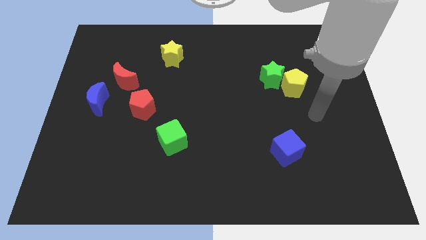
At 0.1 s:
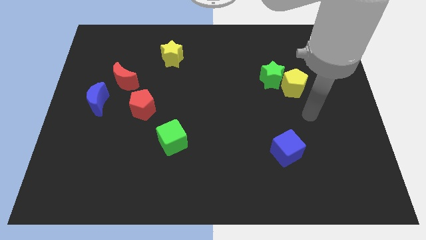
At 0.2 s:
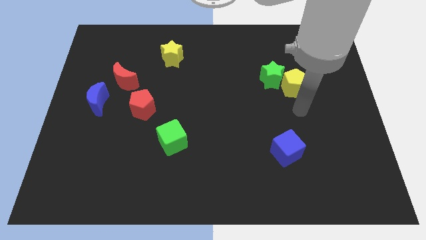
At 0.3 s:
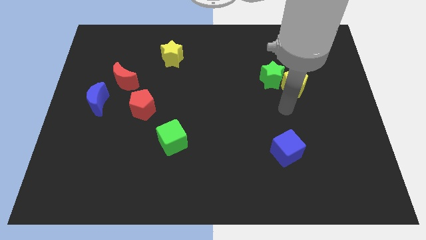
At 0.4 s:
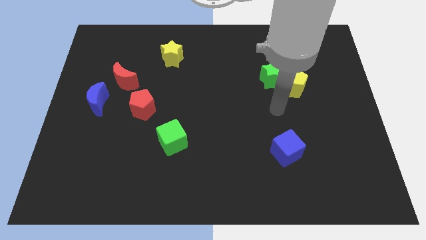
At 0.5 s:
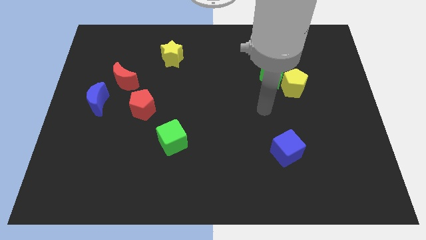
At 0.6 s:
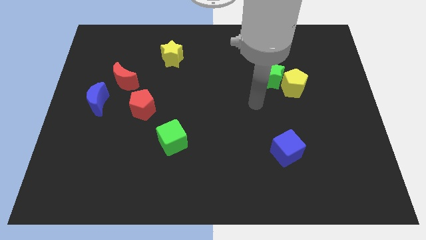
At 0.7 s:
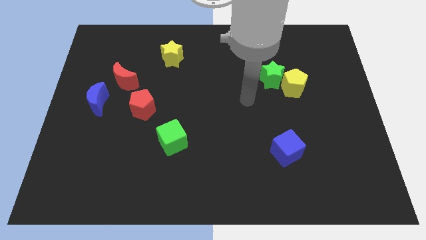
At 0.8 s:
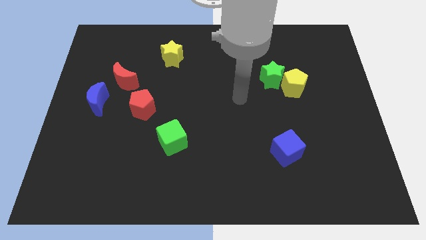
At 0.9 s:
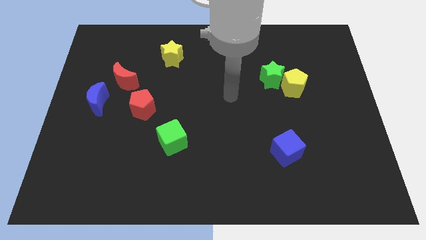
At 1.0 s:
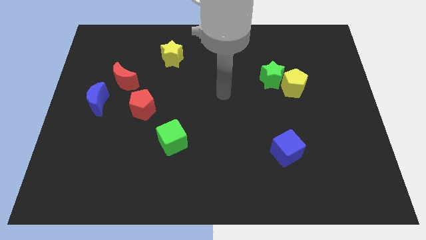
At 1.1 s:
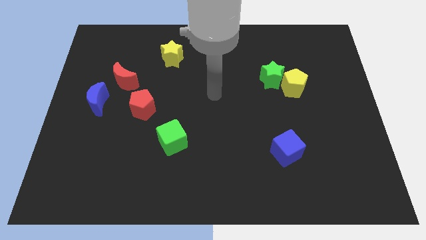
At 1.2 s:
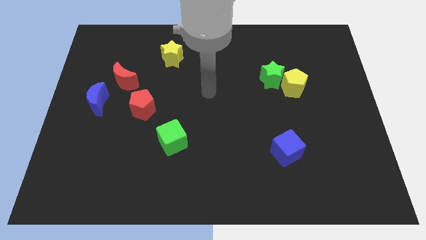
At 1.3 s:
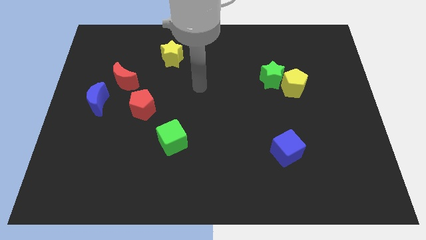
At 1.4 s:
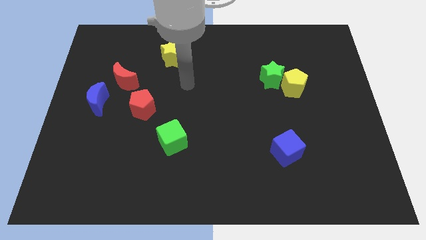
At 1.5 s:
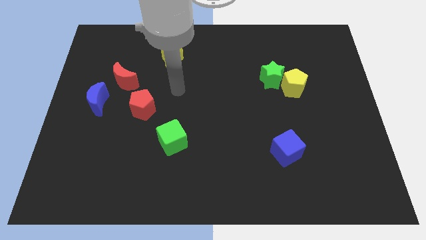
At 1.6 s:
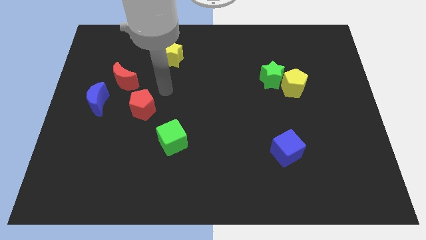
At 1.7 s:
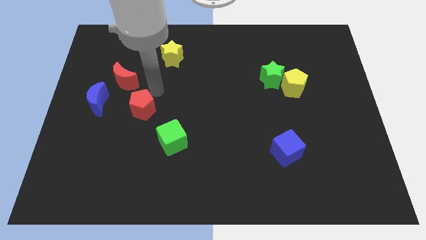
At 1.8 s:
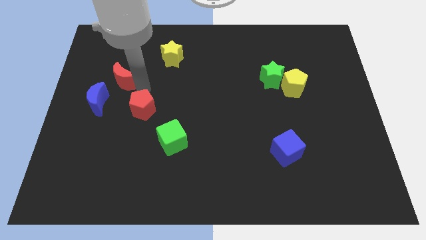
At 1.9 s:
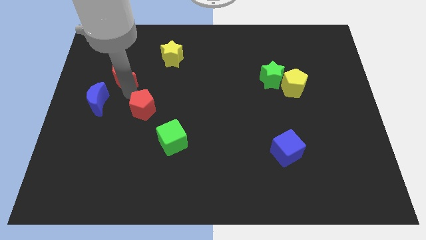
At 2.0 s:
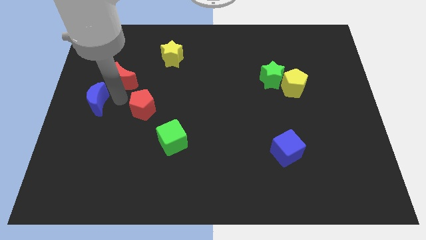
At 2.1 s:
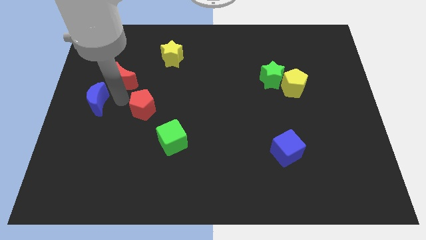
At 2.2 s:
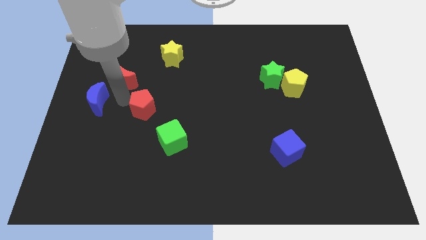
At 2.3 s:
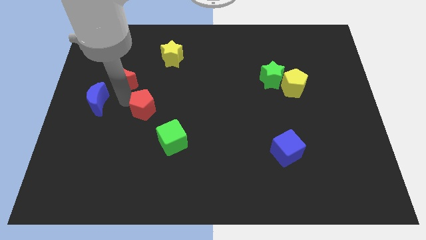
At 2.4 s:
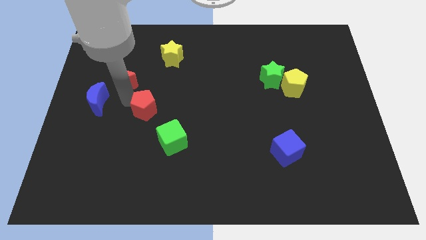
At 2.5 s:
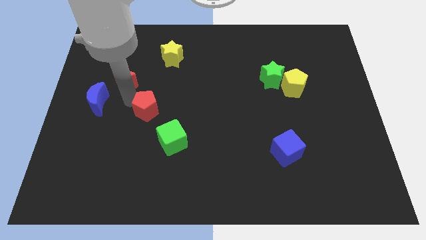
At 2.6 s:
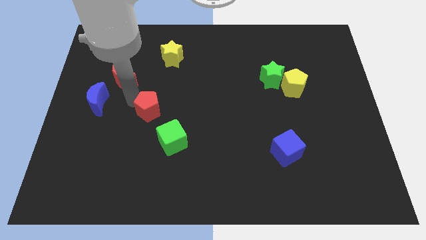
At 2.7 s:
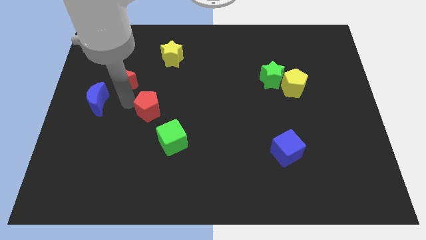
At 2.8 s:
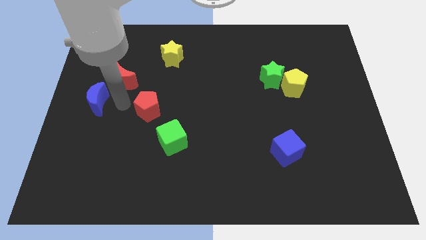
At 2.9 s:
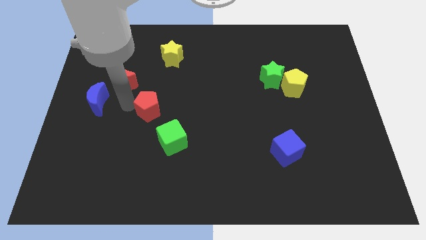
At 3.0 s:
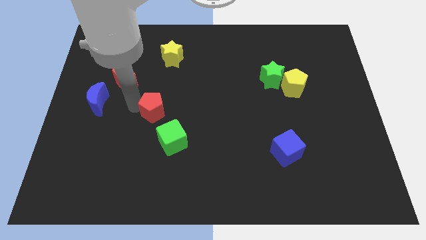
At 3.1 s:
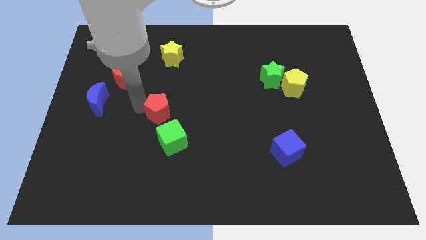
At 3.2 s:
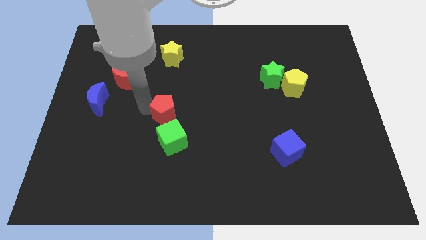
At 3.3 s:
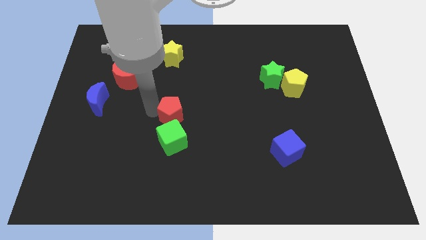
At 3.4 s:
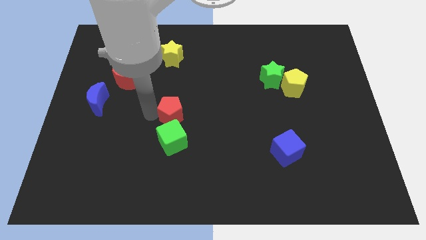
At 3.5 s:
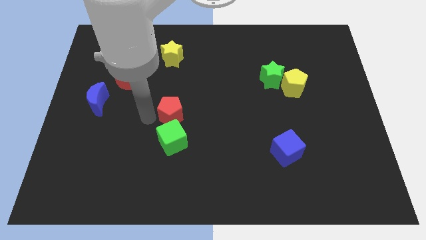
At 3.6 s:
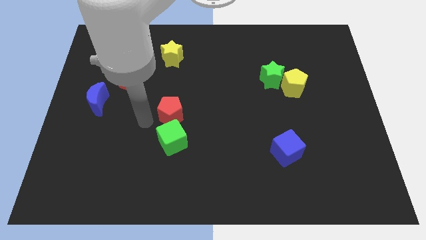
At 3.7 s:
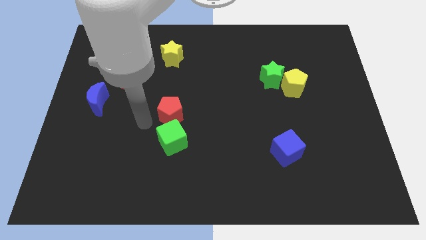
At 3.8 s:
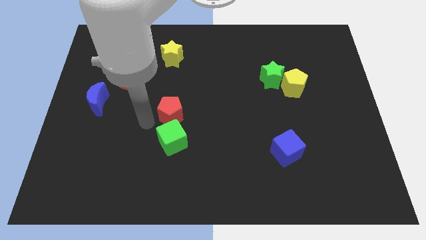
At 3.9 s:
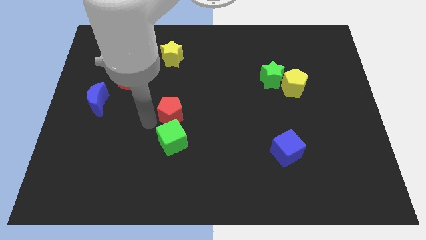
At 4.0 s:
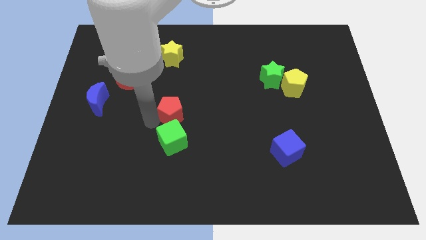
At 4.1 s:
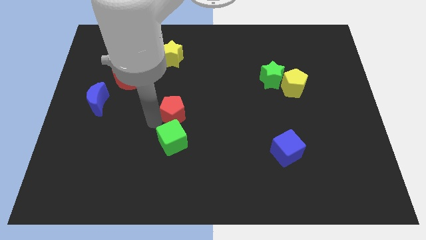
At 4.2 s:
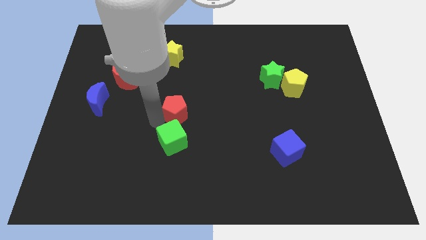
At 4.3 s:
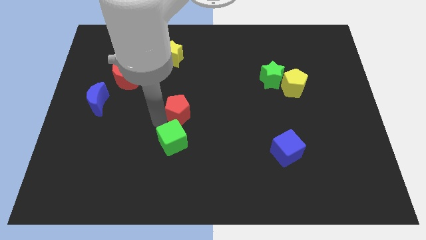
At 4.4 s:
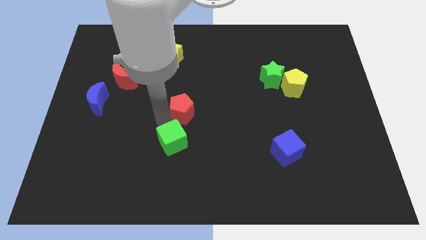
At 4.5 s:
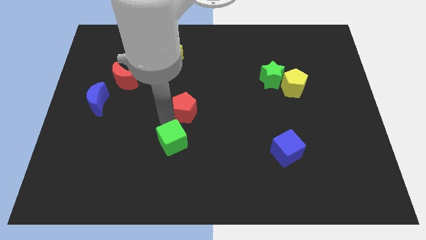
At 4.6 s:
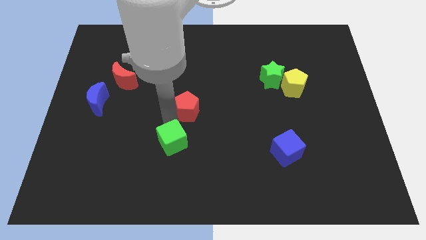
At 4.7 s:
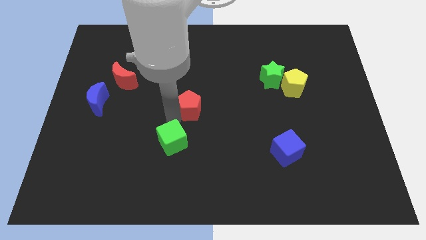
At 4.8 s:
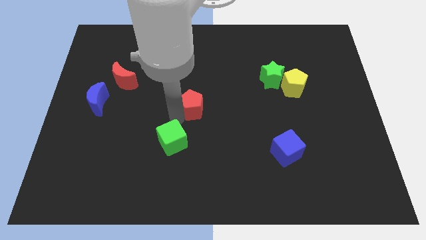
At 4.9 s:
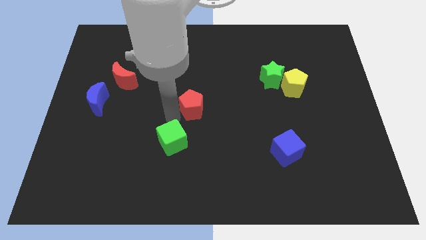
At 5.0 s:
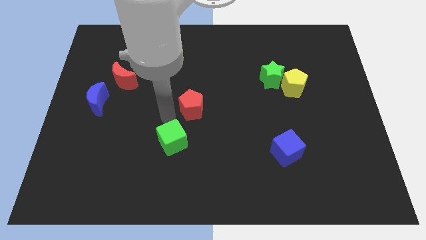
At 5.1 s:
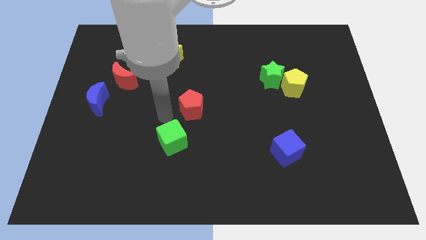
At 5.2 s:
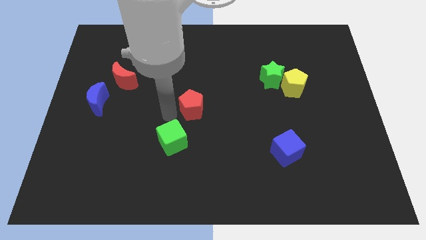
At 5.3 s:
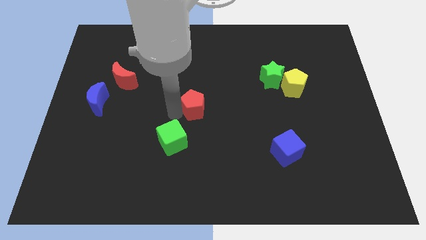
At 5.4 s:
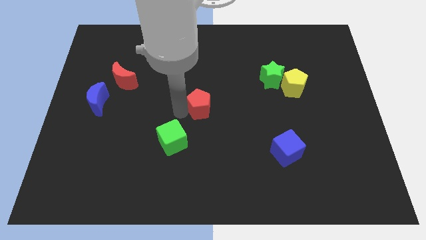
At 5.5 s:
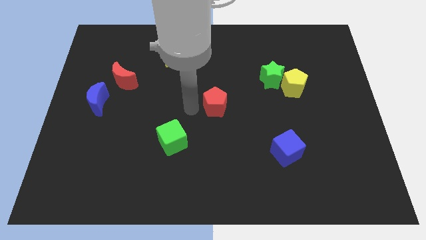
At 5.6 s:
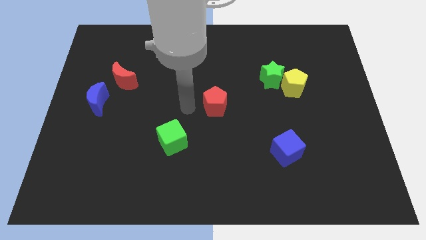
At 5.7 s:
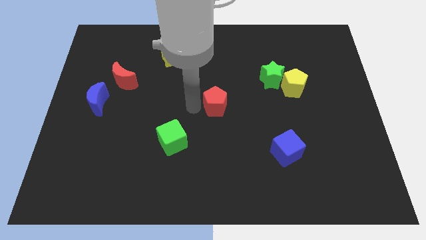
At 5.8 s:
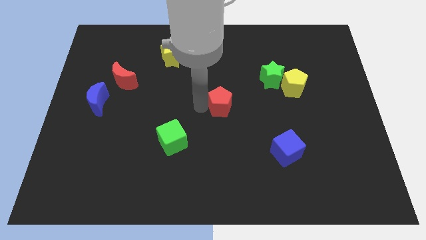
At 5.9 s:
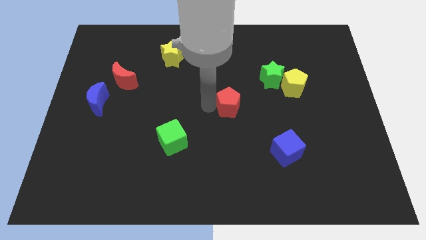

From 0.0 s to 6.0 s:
move the red pentagon right

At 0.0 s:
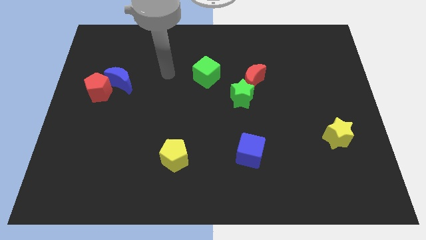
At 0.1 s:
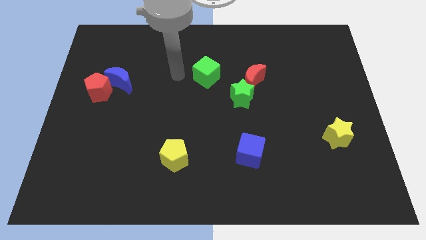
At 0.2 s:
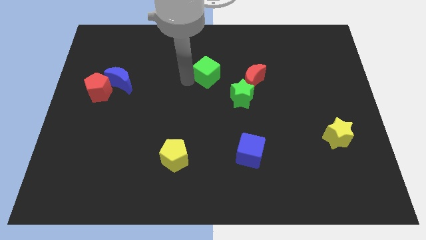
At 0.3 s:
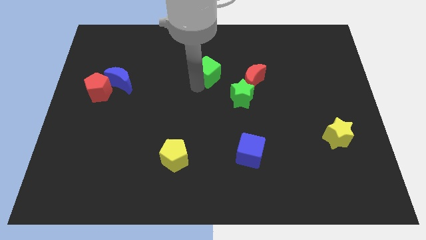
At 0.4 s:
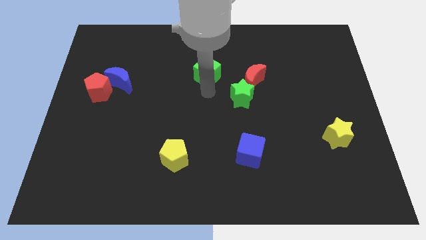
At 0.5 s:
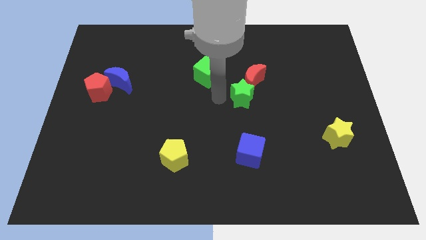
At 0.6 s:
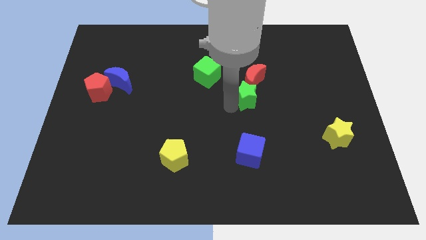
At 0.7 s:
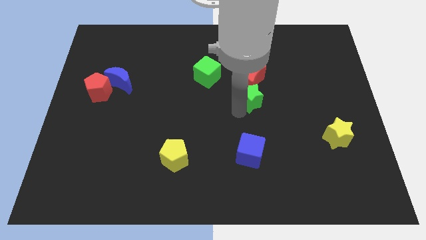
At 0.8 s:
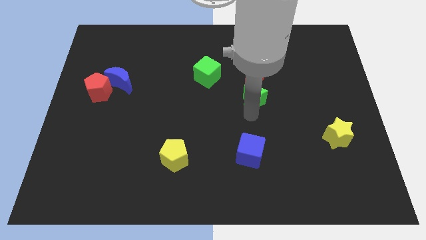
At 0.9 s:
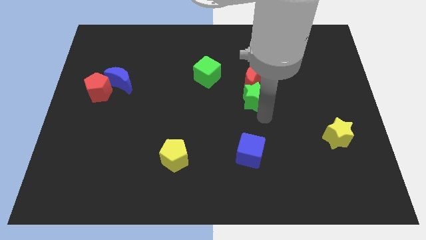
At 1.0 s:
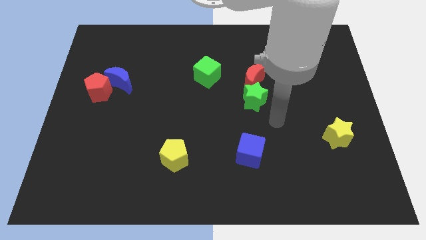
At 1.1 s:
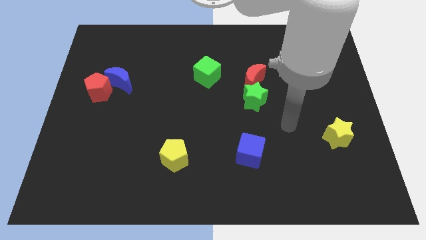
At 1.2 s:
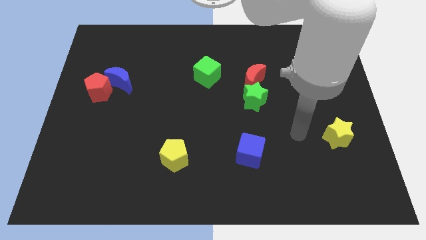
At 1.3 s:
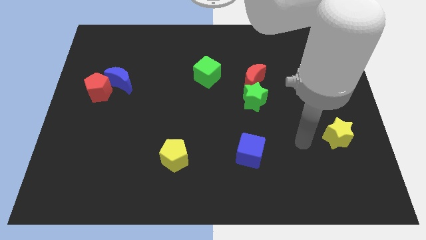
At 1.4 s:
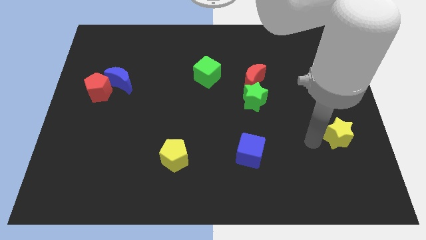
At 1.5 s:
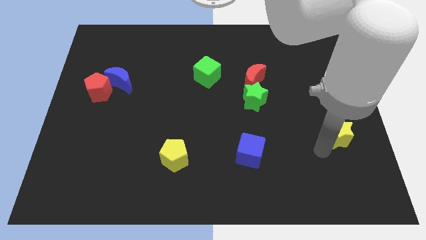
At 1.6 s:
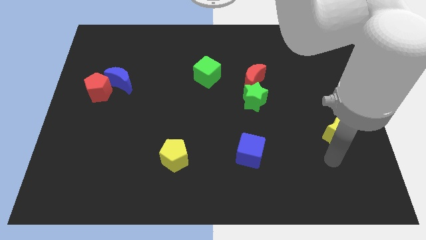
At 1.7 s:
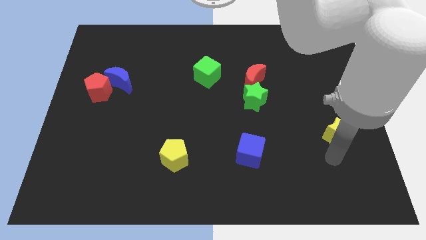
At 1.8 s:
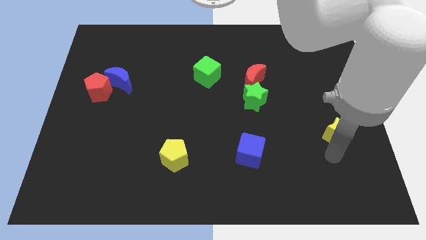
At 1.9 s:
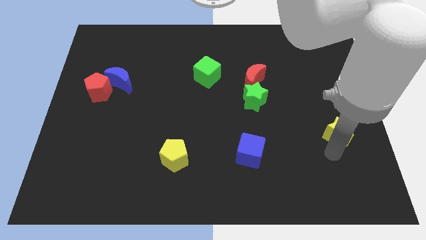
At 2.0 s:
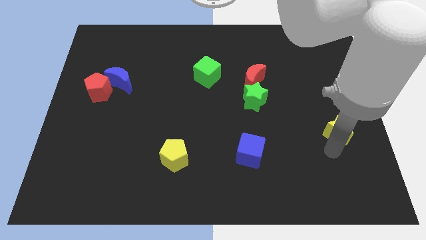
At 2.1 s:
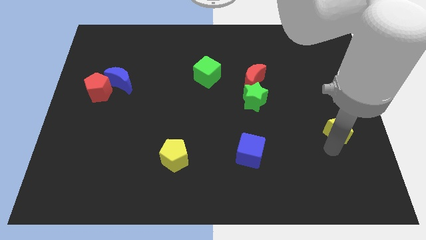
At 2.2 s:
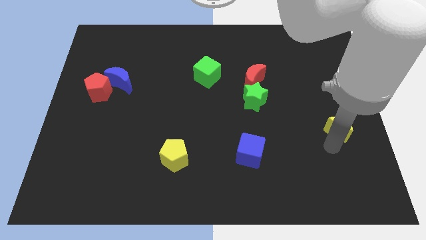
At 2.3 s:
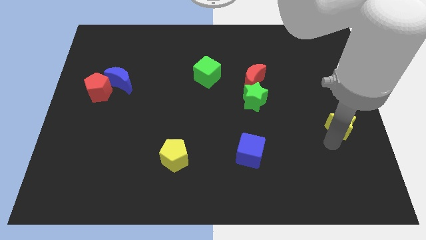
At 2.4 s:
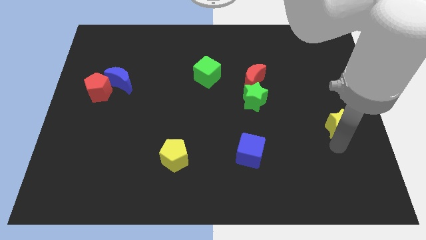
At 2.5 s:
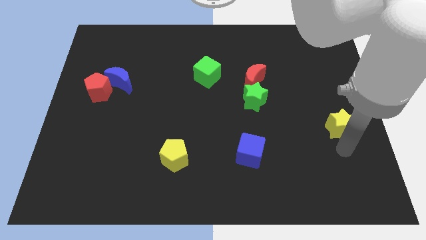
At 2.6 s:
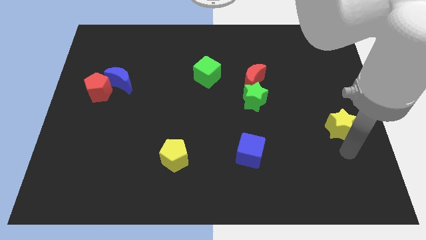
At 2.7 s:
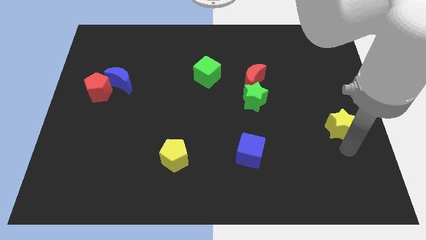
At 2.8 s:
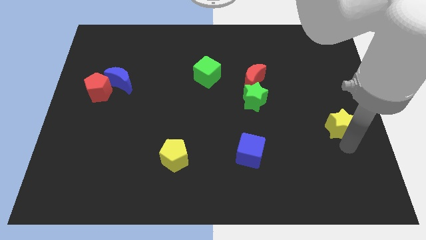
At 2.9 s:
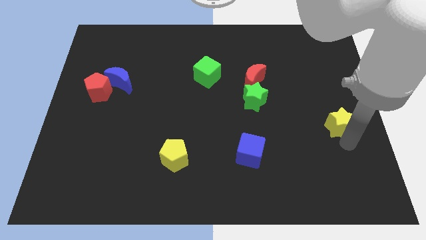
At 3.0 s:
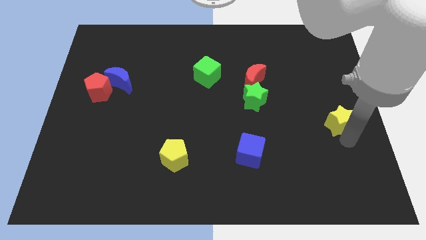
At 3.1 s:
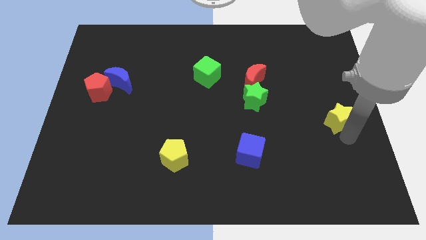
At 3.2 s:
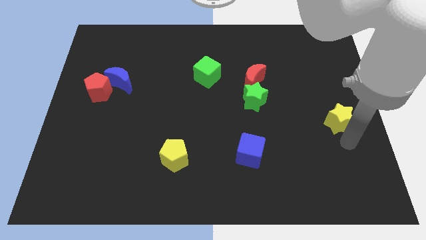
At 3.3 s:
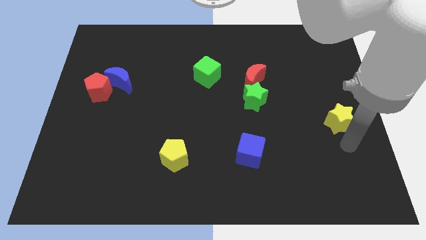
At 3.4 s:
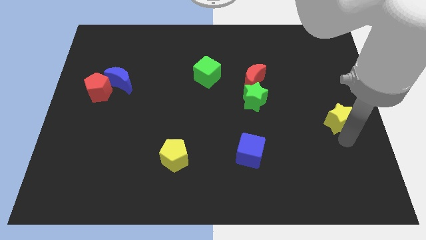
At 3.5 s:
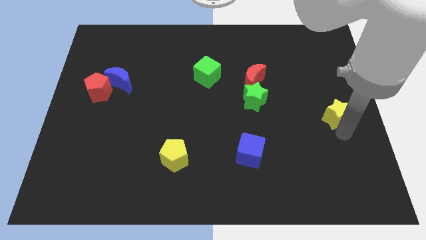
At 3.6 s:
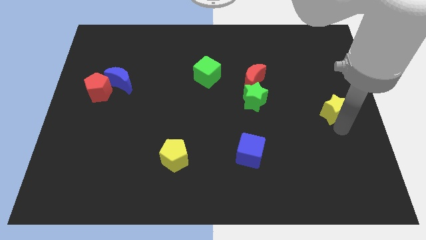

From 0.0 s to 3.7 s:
slightly slide the yellow star upwards
